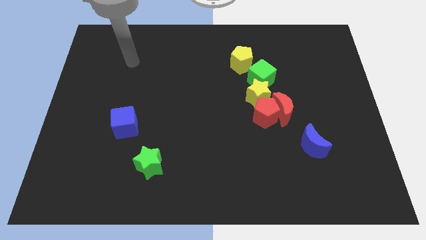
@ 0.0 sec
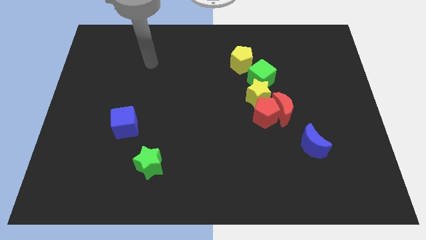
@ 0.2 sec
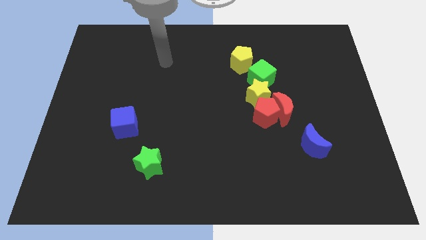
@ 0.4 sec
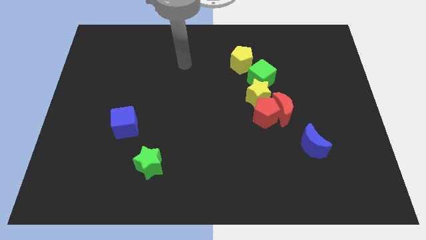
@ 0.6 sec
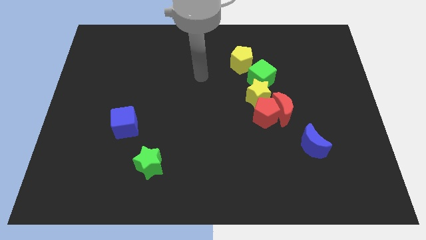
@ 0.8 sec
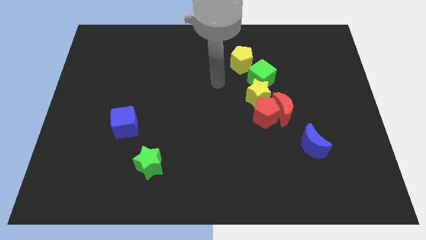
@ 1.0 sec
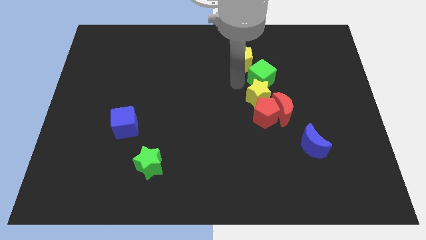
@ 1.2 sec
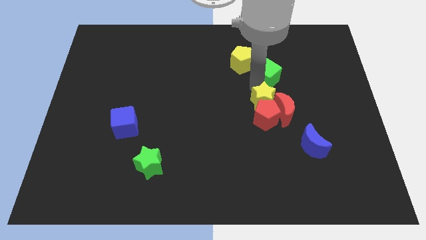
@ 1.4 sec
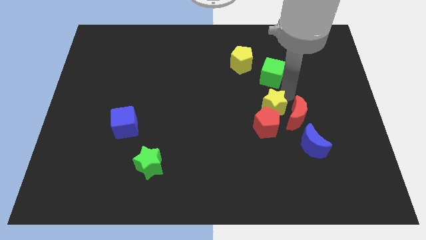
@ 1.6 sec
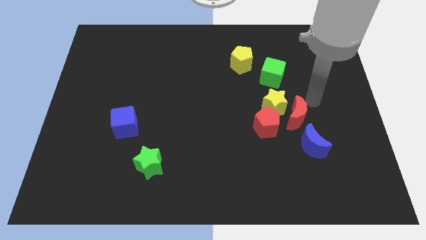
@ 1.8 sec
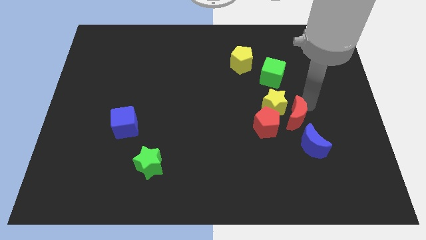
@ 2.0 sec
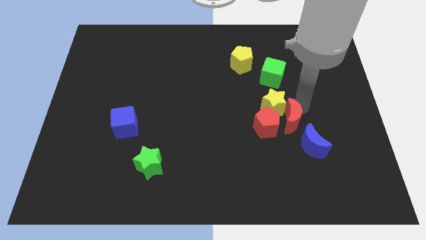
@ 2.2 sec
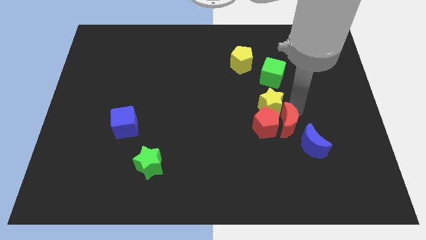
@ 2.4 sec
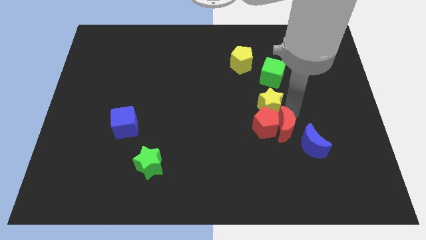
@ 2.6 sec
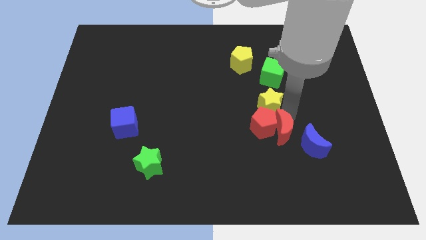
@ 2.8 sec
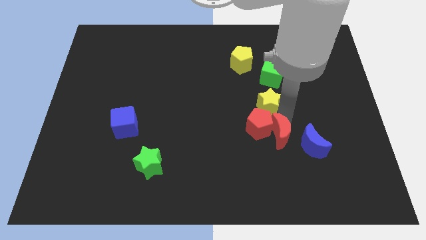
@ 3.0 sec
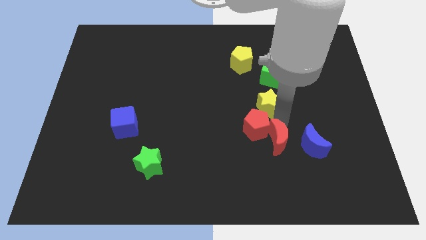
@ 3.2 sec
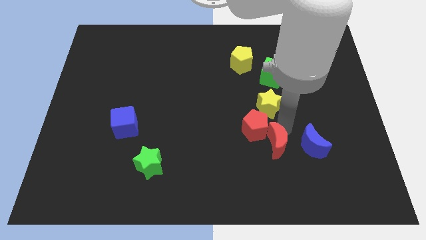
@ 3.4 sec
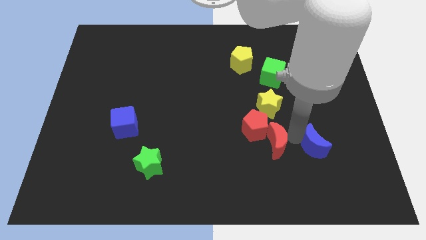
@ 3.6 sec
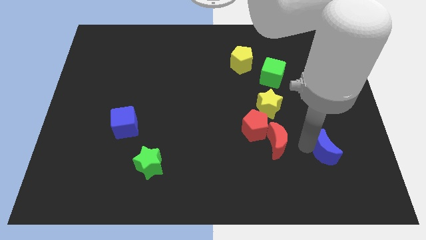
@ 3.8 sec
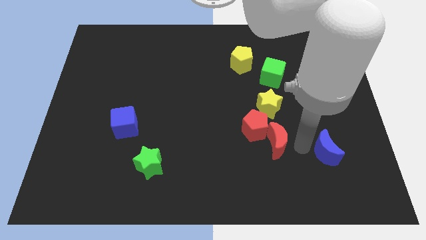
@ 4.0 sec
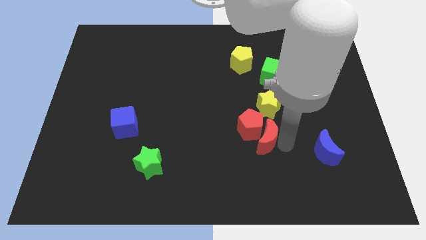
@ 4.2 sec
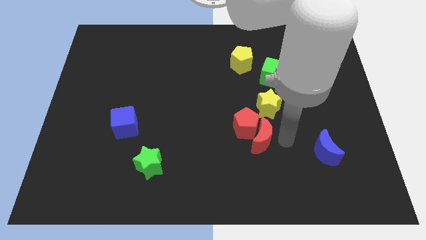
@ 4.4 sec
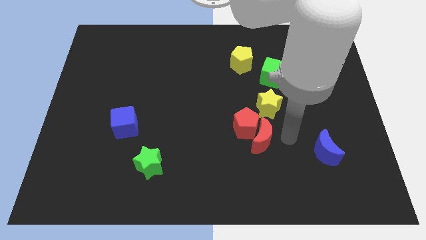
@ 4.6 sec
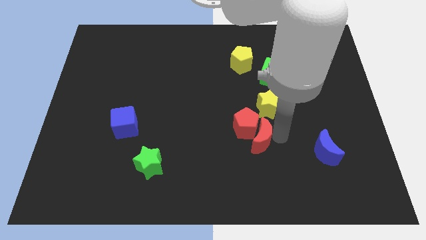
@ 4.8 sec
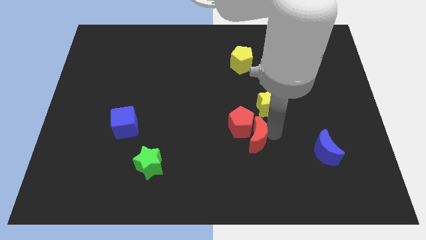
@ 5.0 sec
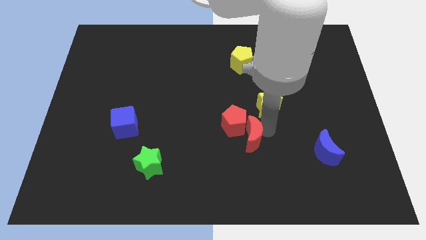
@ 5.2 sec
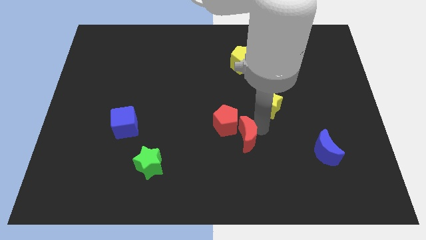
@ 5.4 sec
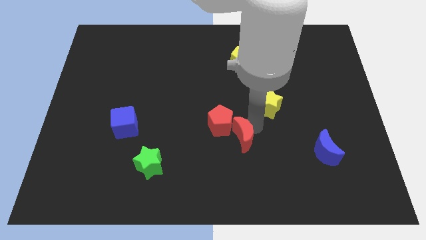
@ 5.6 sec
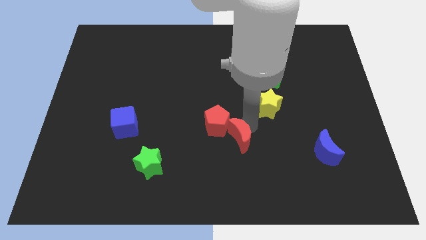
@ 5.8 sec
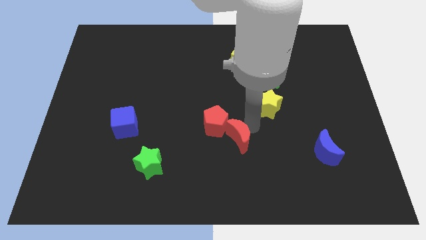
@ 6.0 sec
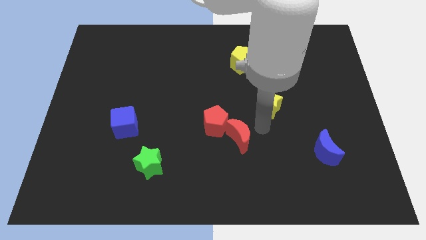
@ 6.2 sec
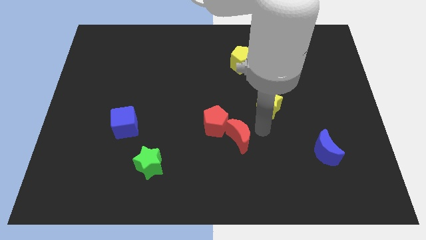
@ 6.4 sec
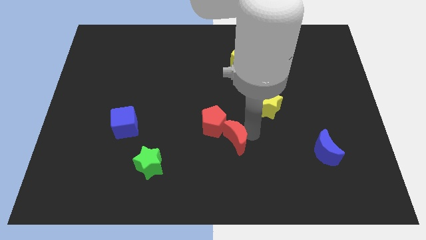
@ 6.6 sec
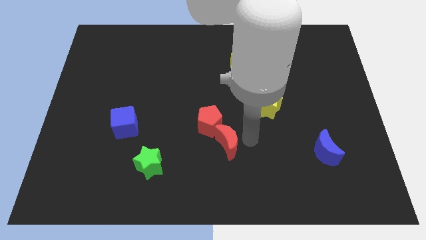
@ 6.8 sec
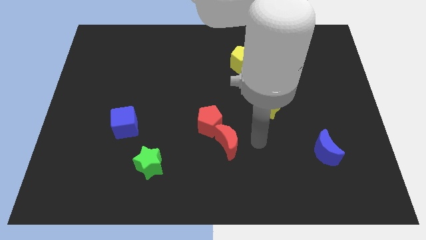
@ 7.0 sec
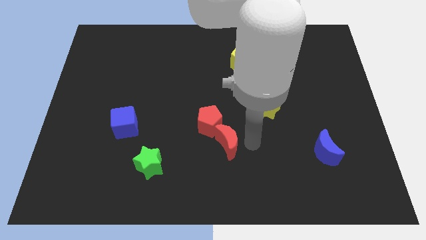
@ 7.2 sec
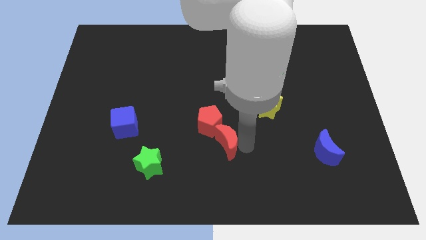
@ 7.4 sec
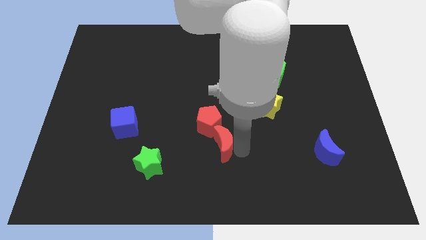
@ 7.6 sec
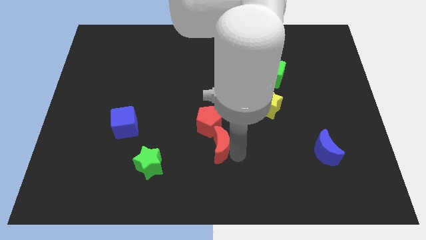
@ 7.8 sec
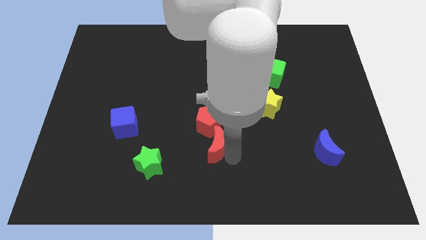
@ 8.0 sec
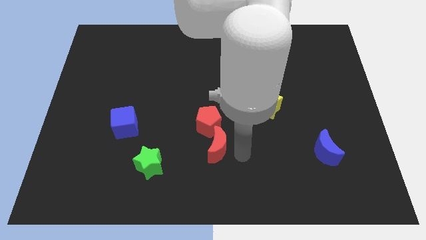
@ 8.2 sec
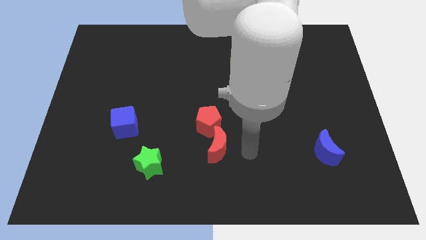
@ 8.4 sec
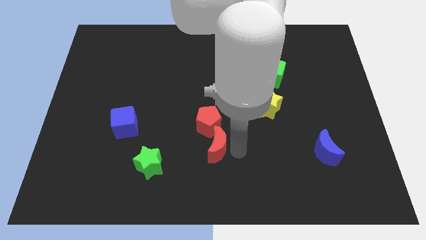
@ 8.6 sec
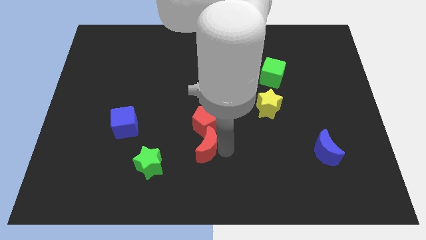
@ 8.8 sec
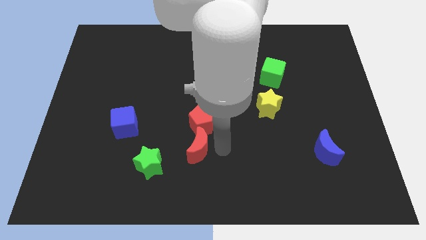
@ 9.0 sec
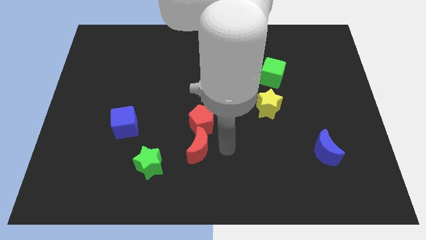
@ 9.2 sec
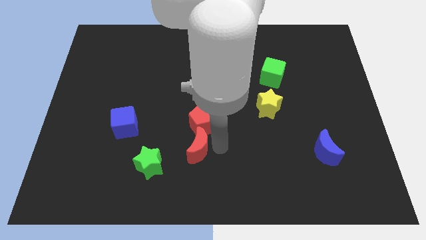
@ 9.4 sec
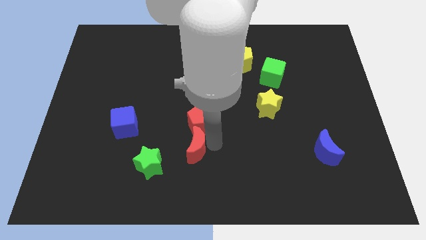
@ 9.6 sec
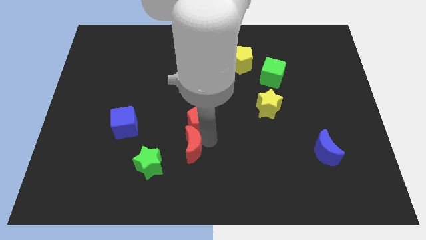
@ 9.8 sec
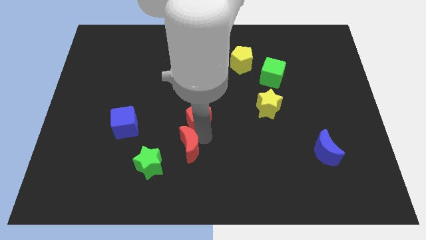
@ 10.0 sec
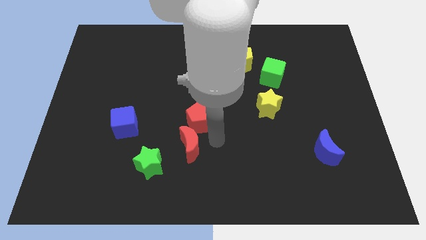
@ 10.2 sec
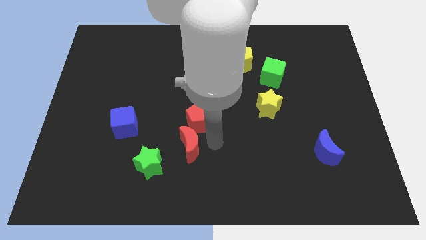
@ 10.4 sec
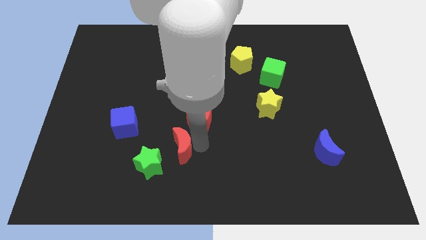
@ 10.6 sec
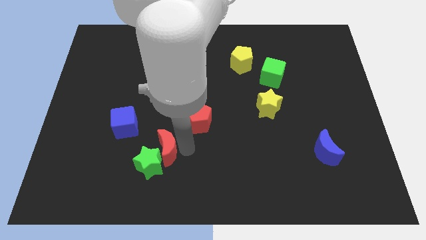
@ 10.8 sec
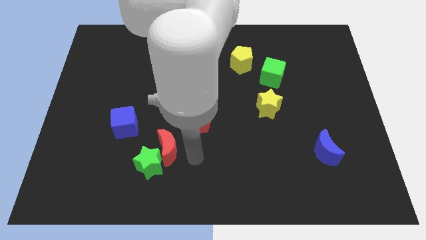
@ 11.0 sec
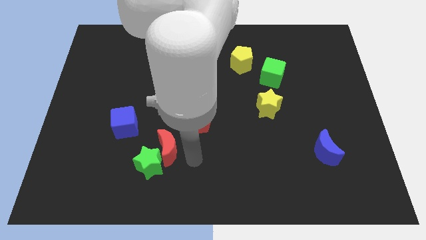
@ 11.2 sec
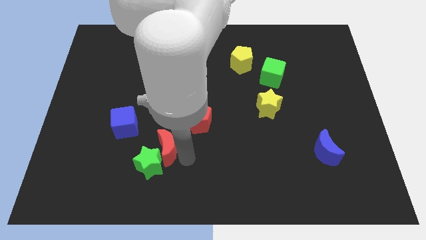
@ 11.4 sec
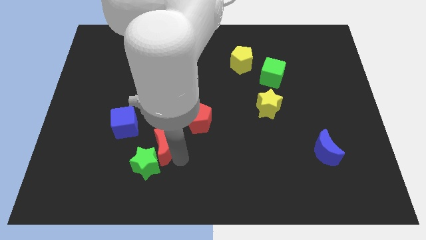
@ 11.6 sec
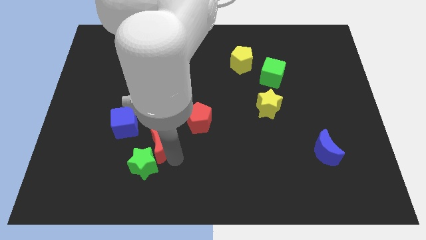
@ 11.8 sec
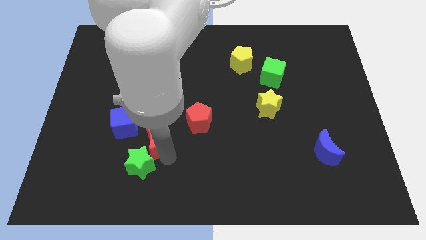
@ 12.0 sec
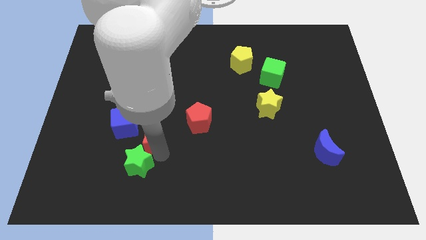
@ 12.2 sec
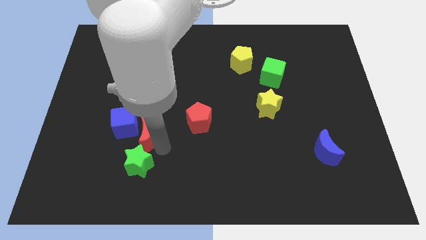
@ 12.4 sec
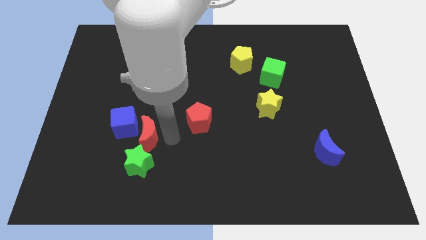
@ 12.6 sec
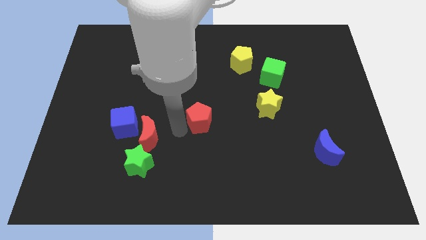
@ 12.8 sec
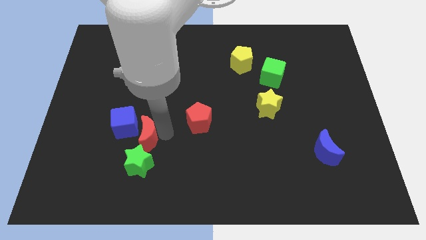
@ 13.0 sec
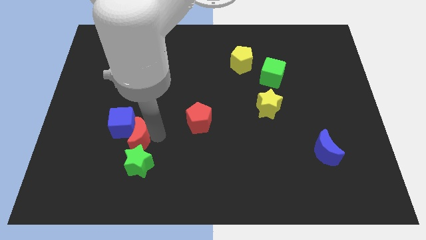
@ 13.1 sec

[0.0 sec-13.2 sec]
put the red moon to the top left side of the green star
